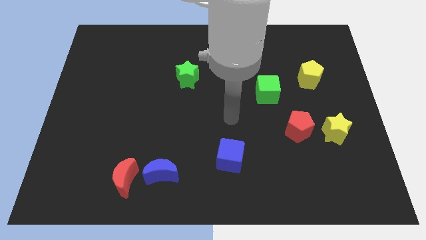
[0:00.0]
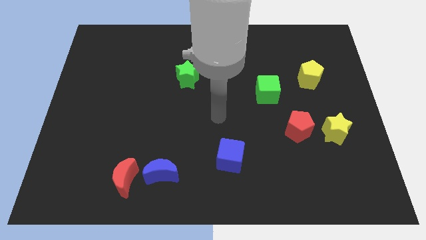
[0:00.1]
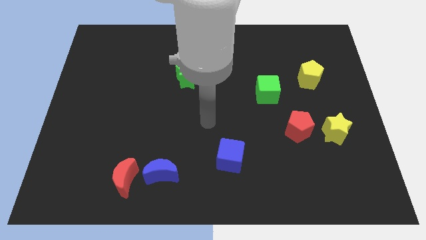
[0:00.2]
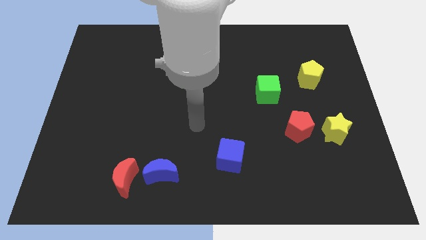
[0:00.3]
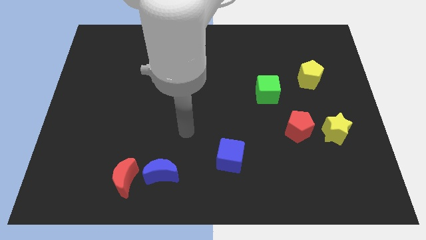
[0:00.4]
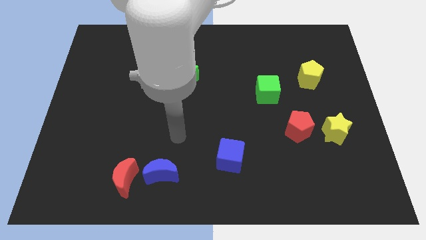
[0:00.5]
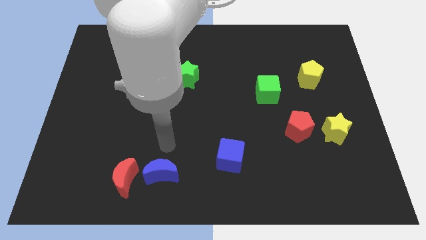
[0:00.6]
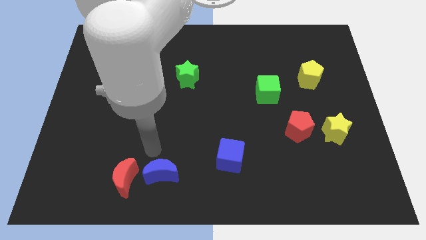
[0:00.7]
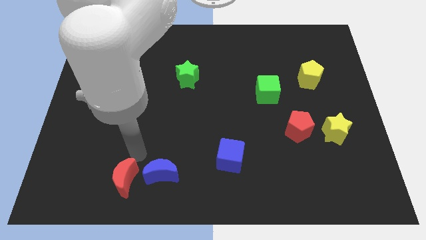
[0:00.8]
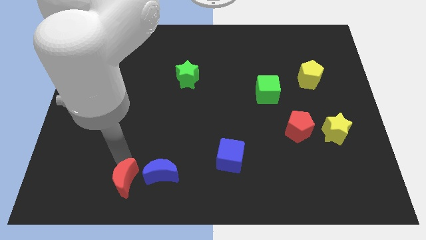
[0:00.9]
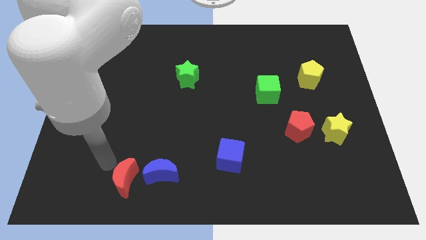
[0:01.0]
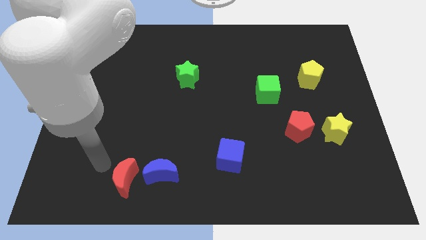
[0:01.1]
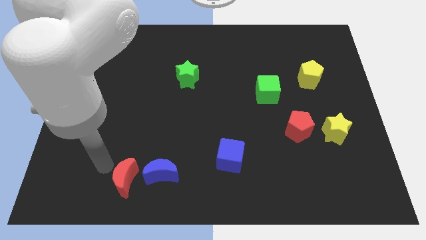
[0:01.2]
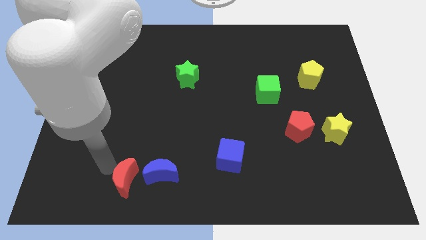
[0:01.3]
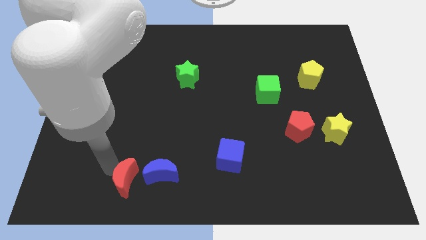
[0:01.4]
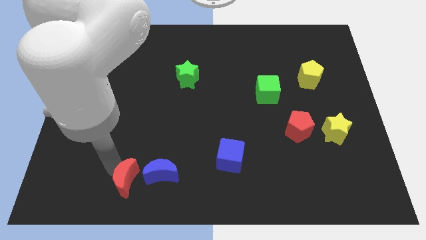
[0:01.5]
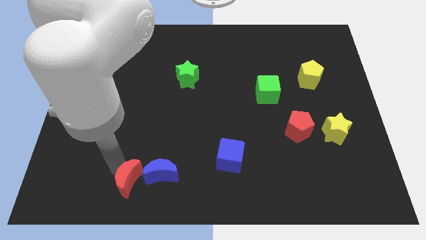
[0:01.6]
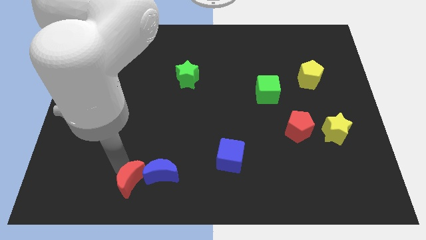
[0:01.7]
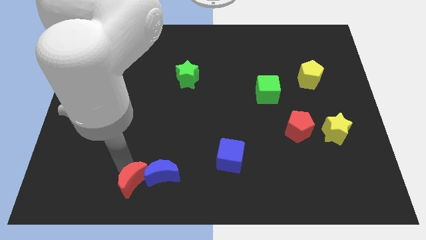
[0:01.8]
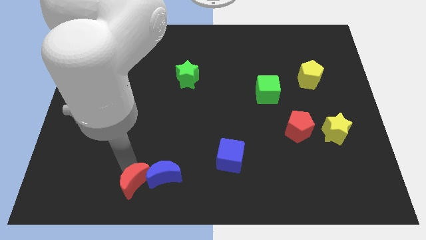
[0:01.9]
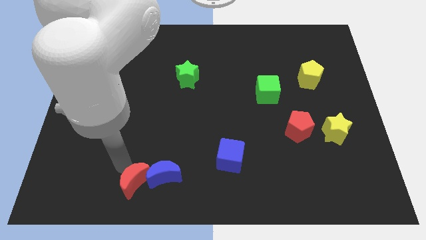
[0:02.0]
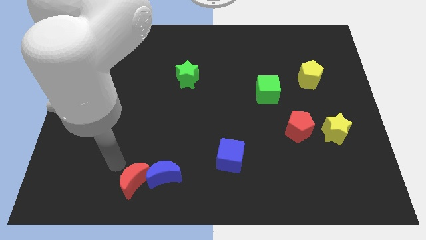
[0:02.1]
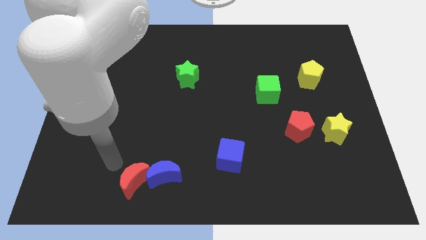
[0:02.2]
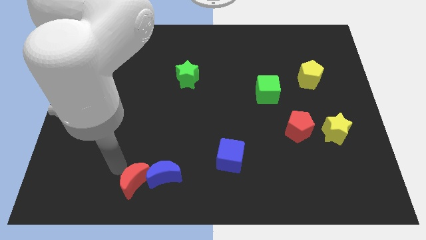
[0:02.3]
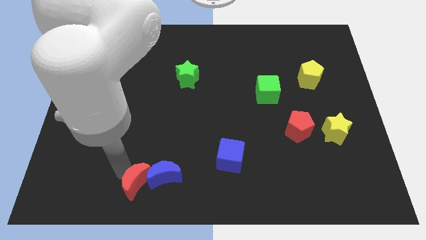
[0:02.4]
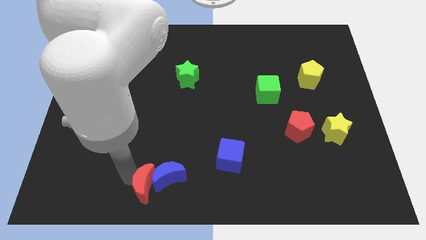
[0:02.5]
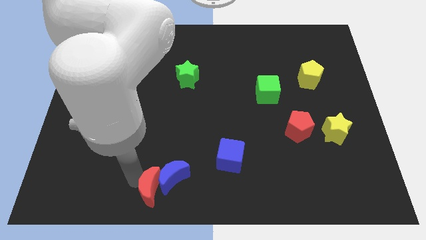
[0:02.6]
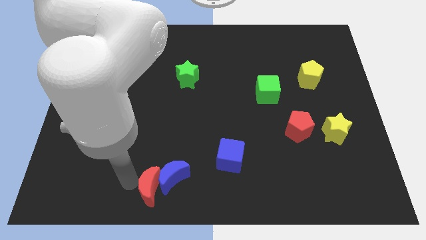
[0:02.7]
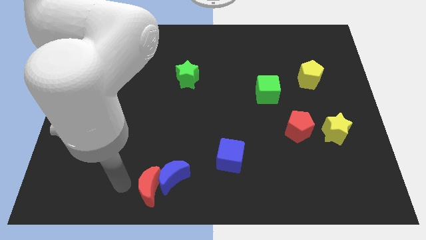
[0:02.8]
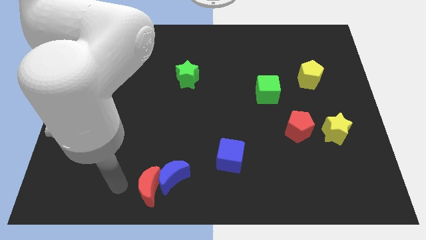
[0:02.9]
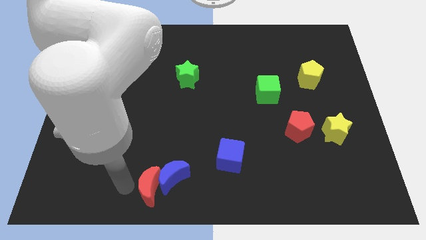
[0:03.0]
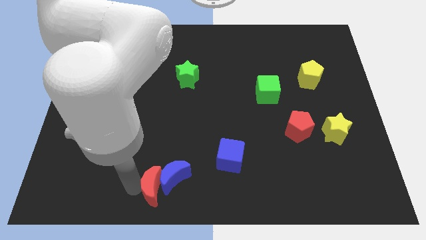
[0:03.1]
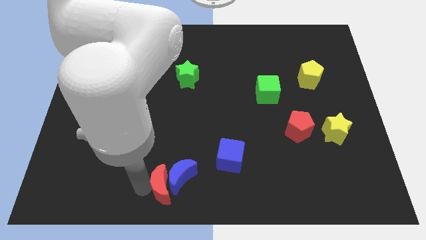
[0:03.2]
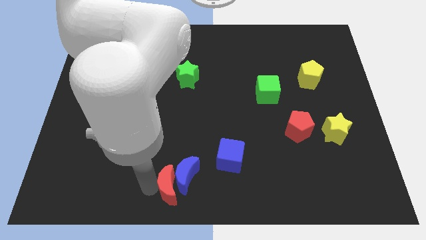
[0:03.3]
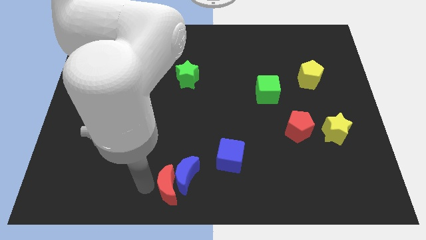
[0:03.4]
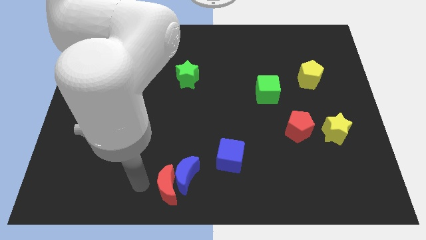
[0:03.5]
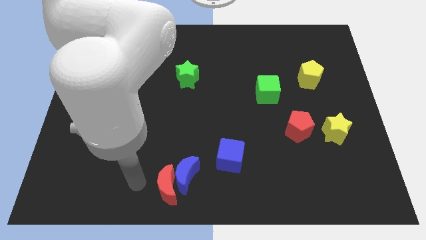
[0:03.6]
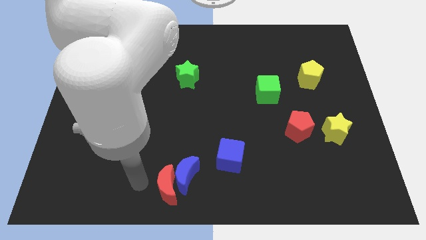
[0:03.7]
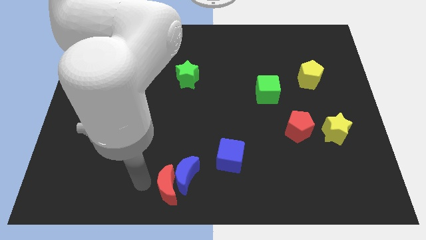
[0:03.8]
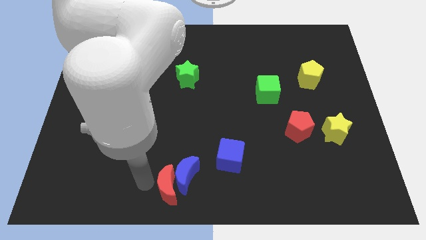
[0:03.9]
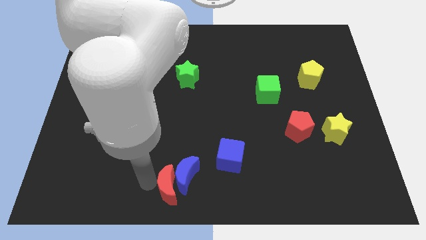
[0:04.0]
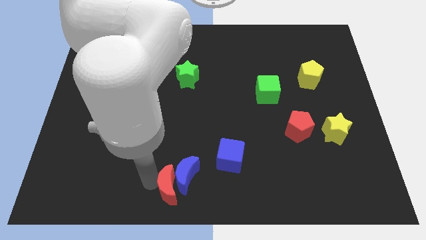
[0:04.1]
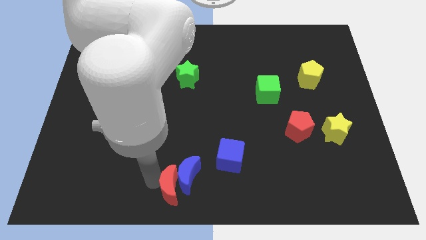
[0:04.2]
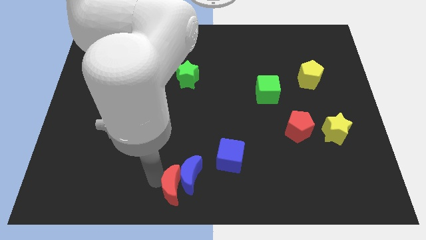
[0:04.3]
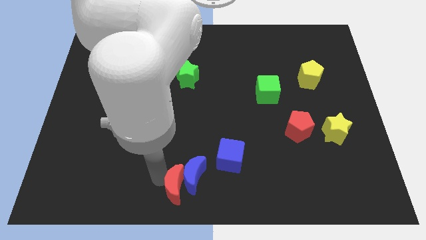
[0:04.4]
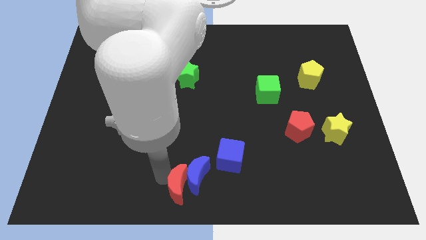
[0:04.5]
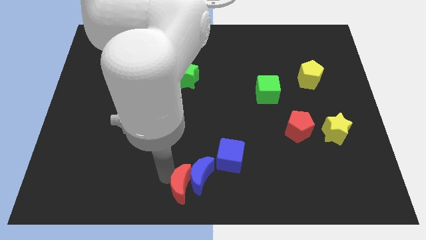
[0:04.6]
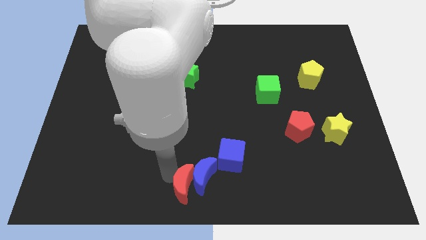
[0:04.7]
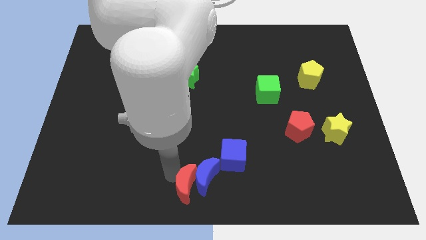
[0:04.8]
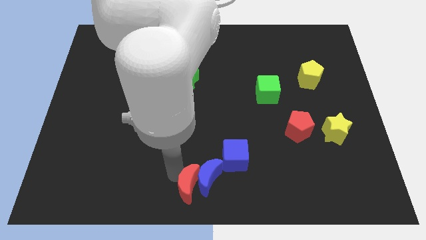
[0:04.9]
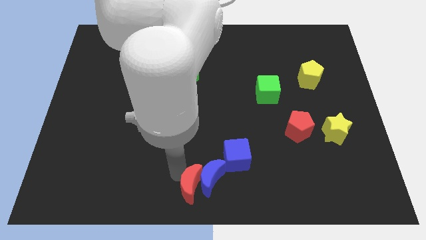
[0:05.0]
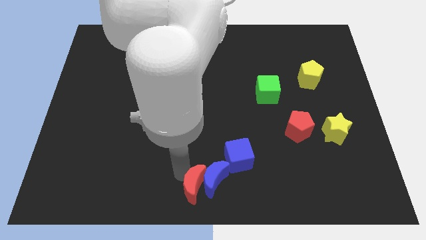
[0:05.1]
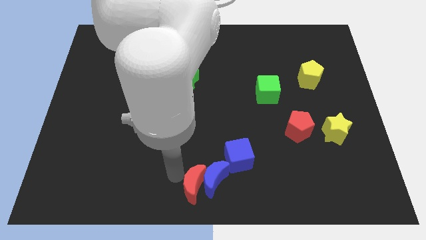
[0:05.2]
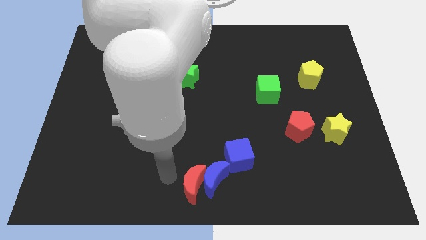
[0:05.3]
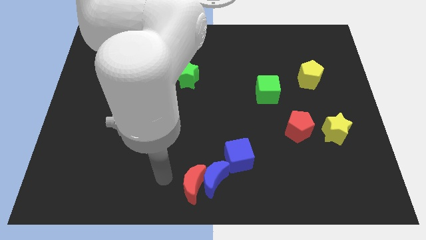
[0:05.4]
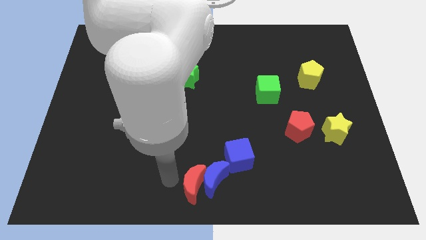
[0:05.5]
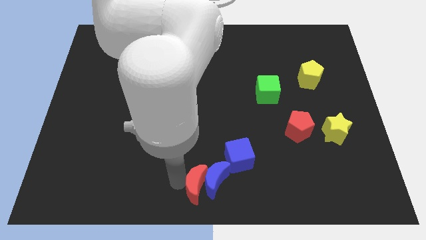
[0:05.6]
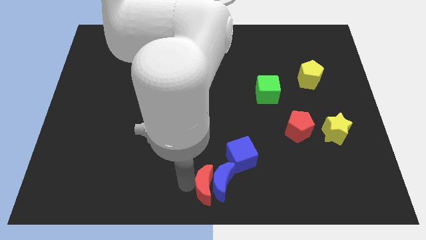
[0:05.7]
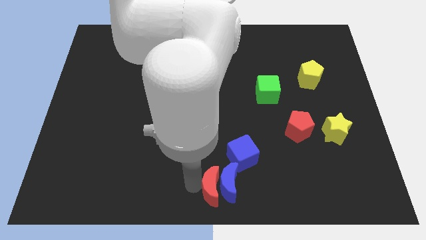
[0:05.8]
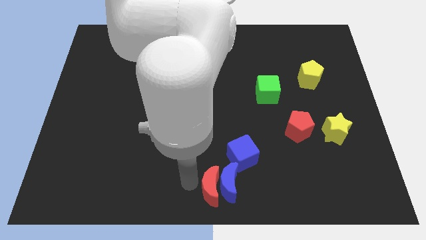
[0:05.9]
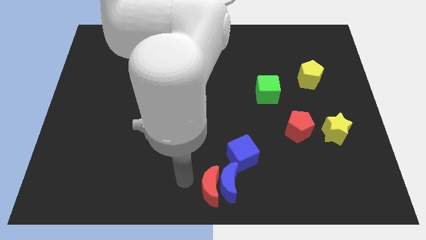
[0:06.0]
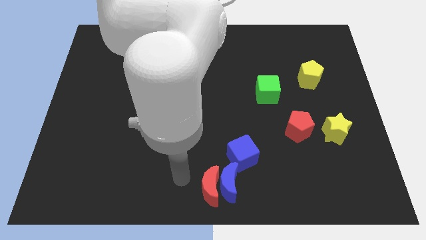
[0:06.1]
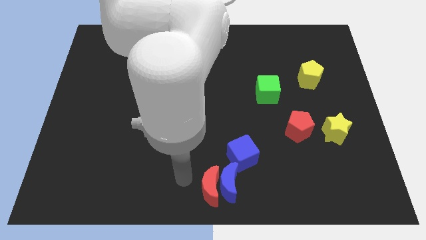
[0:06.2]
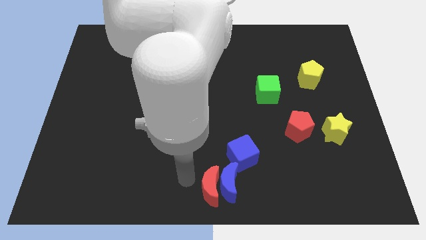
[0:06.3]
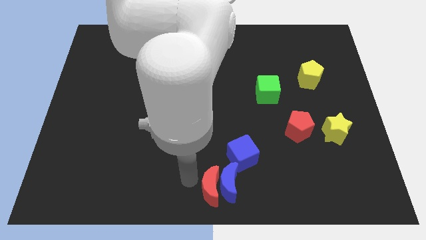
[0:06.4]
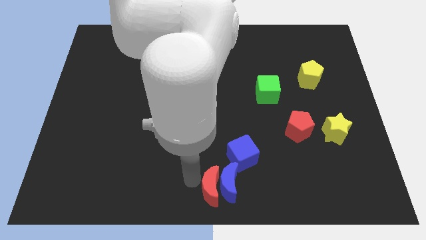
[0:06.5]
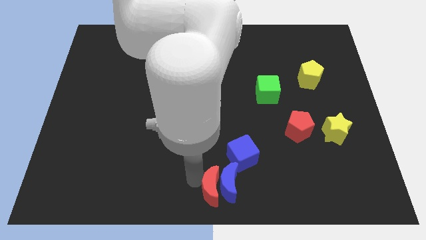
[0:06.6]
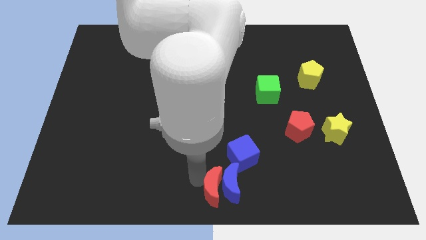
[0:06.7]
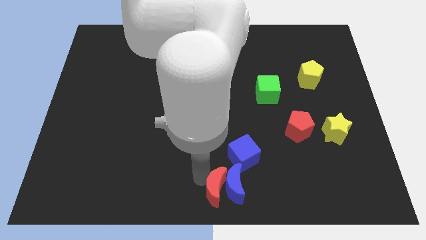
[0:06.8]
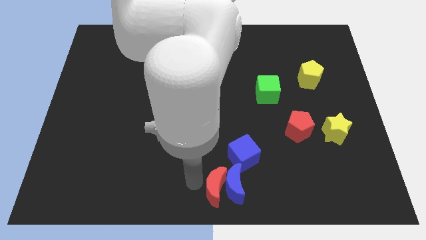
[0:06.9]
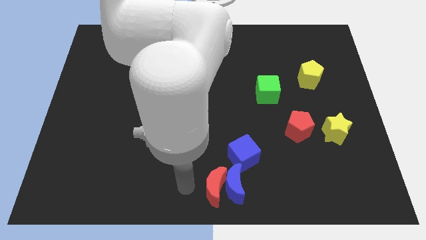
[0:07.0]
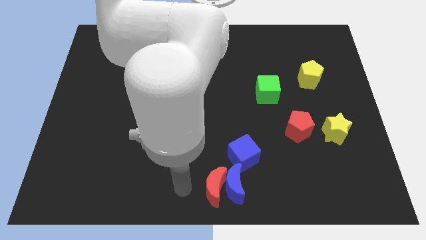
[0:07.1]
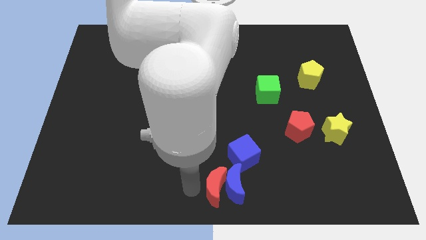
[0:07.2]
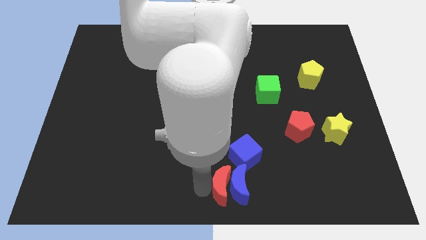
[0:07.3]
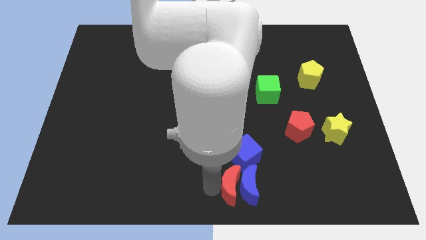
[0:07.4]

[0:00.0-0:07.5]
slide the red moon right
